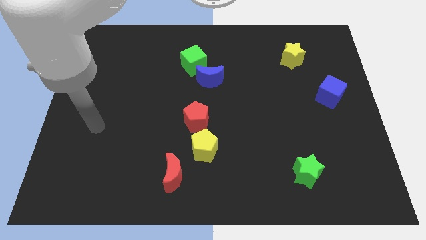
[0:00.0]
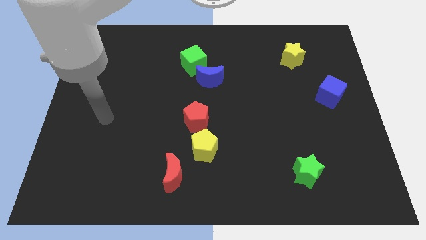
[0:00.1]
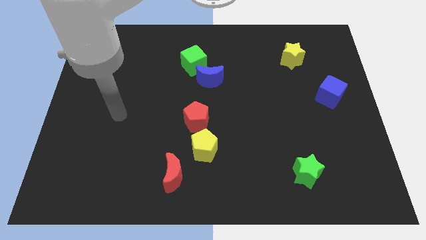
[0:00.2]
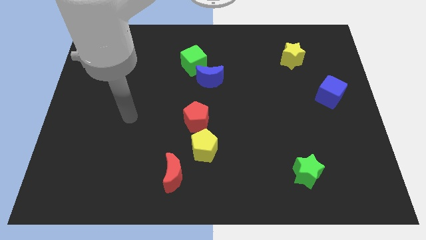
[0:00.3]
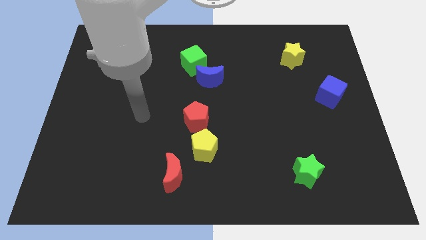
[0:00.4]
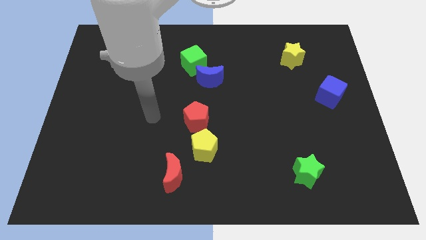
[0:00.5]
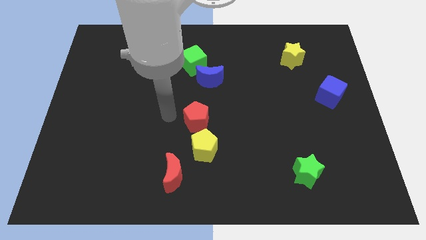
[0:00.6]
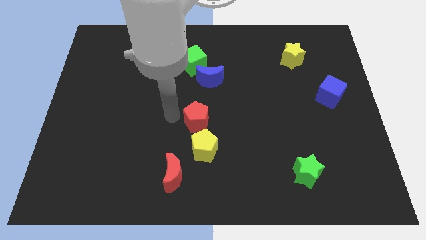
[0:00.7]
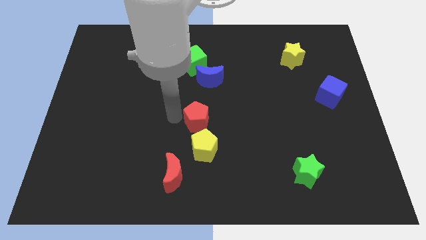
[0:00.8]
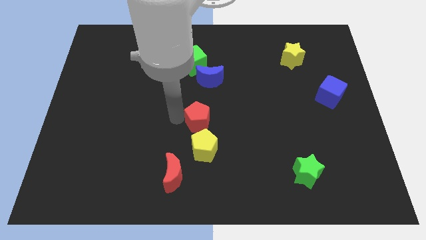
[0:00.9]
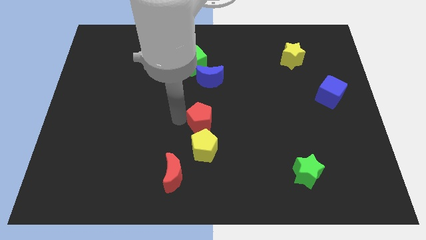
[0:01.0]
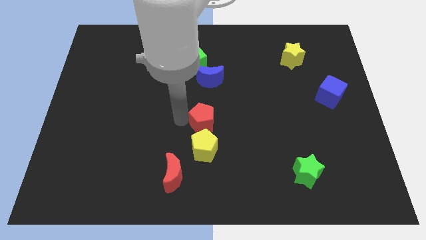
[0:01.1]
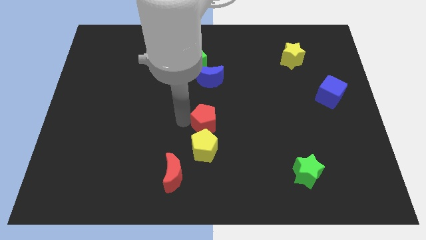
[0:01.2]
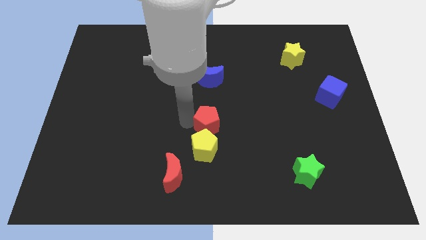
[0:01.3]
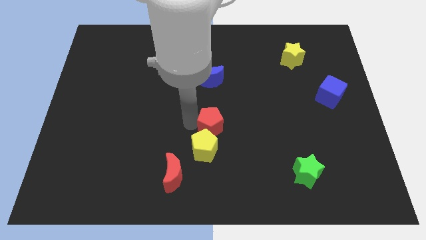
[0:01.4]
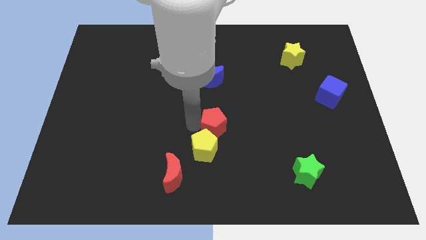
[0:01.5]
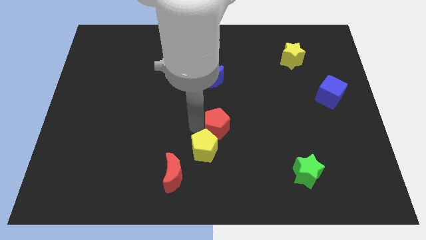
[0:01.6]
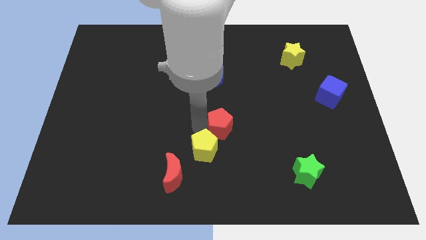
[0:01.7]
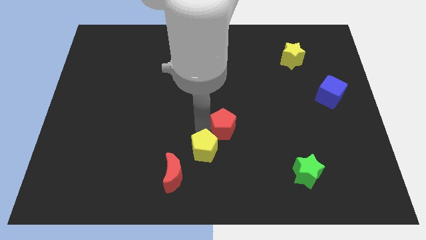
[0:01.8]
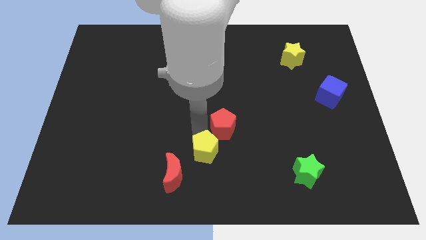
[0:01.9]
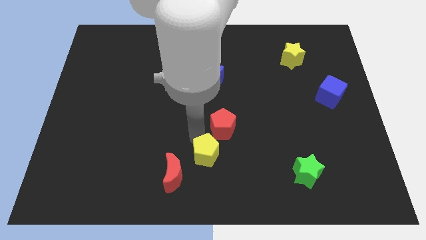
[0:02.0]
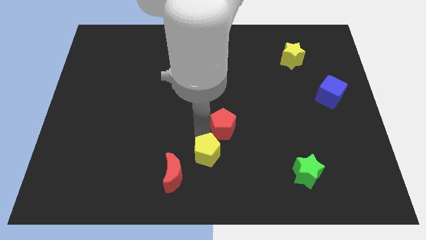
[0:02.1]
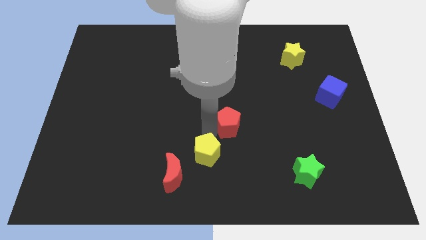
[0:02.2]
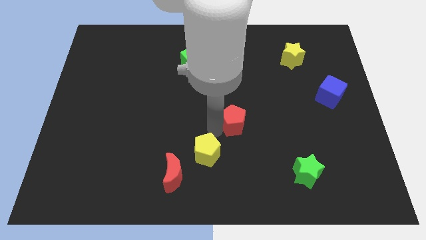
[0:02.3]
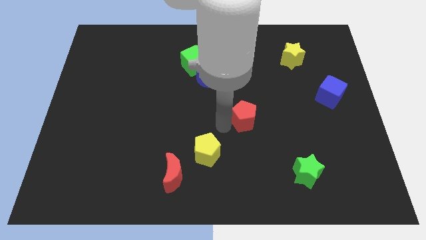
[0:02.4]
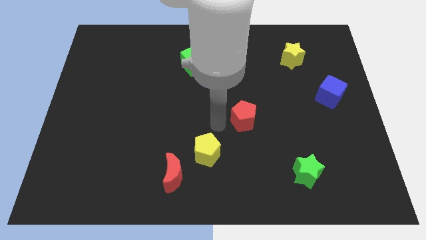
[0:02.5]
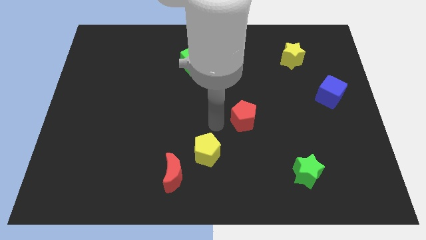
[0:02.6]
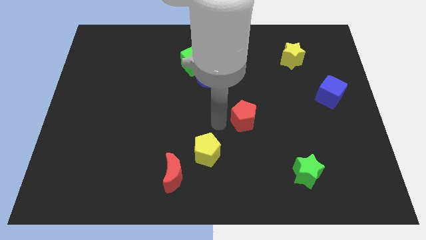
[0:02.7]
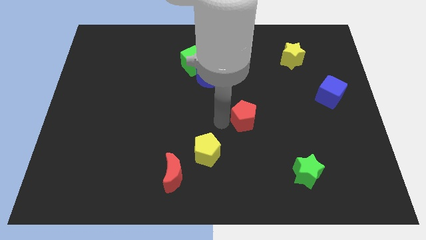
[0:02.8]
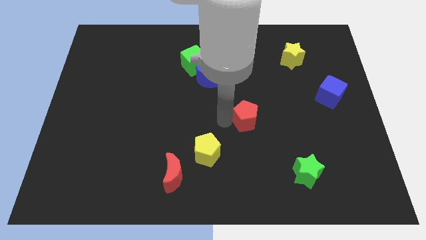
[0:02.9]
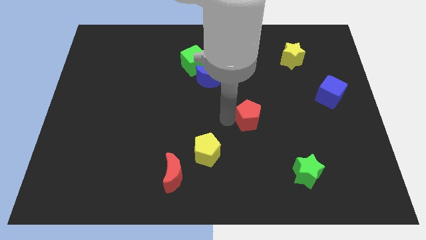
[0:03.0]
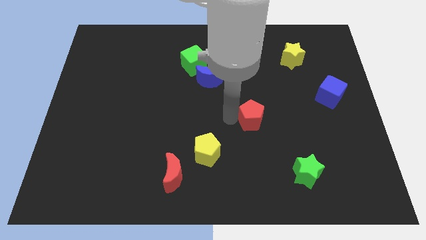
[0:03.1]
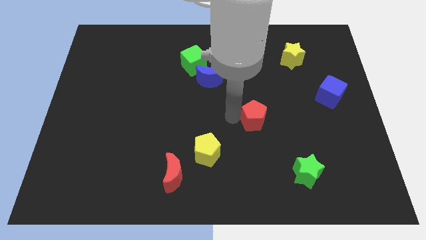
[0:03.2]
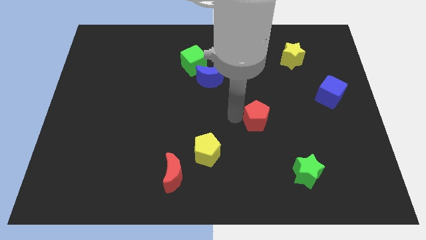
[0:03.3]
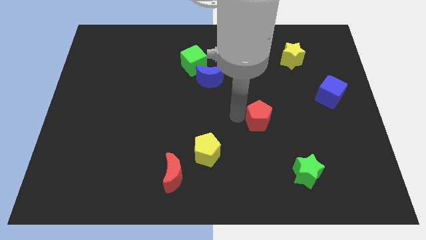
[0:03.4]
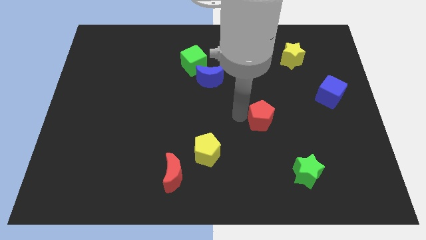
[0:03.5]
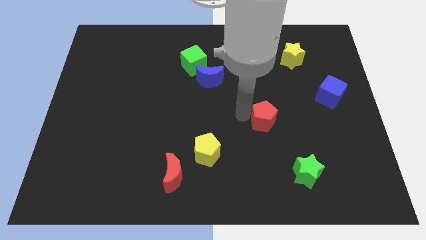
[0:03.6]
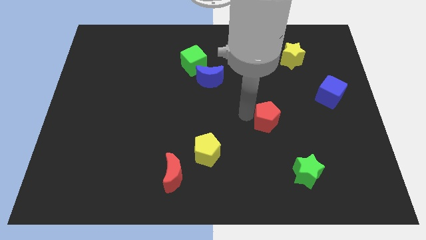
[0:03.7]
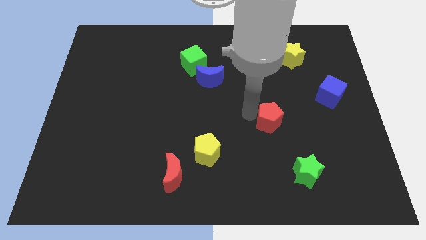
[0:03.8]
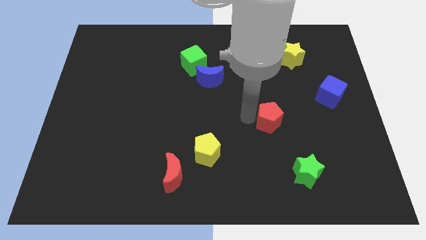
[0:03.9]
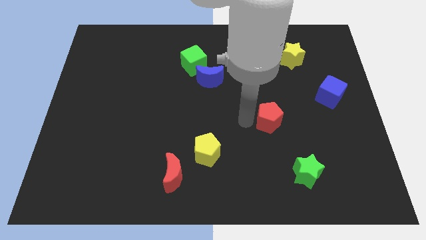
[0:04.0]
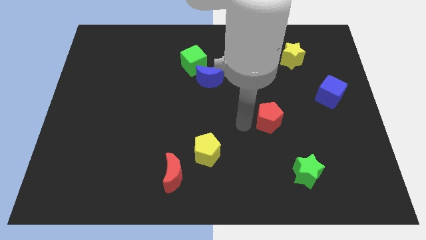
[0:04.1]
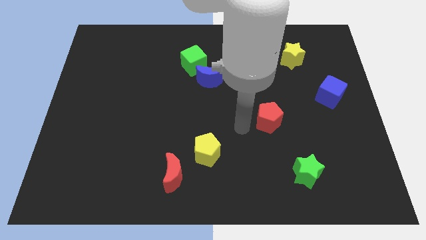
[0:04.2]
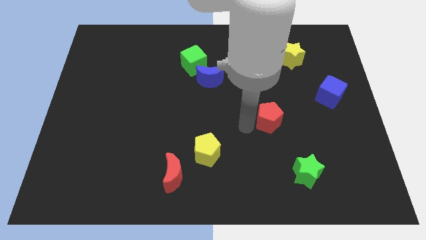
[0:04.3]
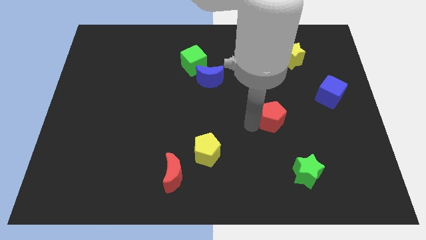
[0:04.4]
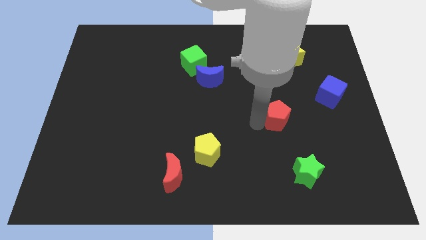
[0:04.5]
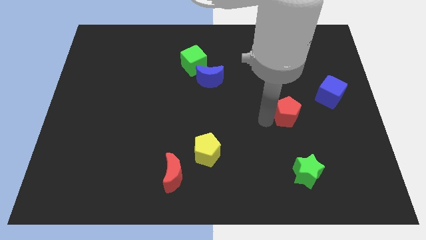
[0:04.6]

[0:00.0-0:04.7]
slide the red pentagon right

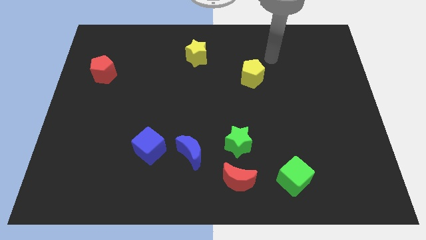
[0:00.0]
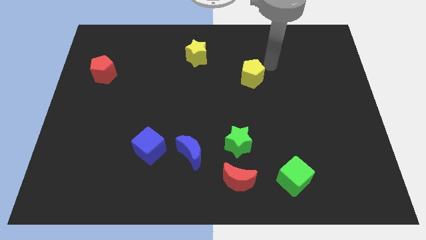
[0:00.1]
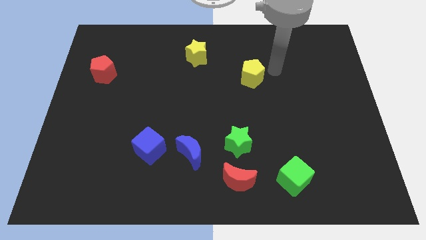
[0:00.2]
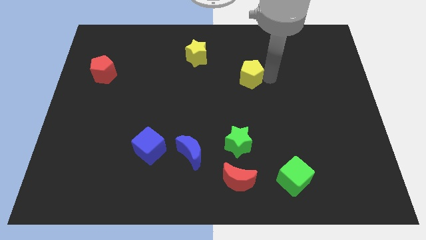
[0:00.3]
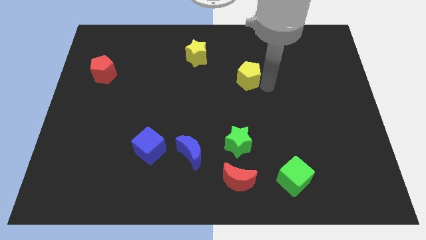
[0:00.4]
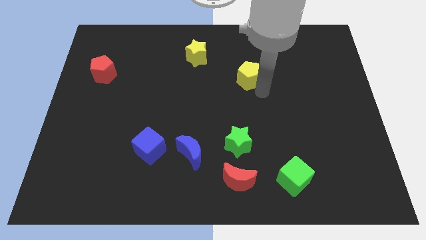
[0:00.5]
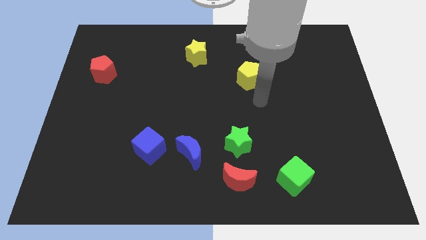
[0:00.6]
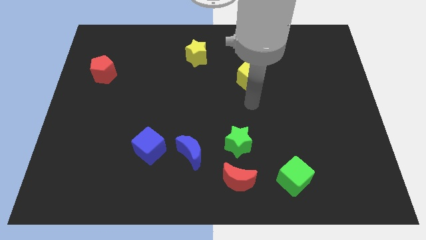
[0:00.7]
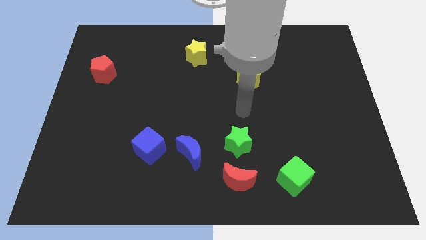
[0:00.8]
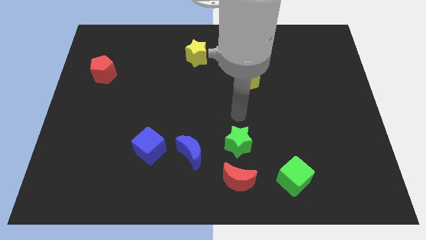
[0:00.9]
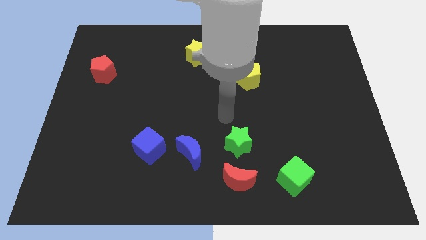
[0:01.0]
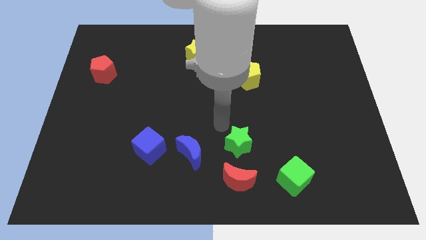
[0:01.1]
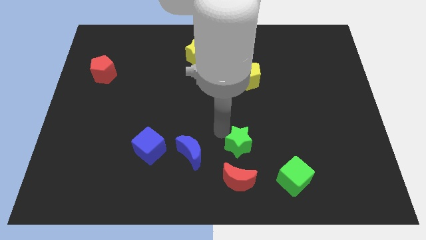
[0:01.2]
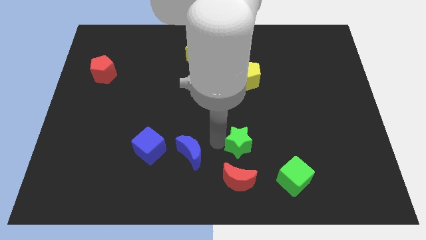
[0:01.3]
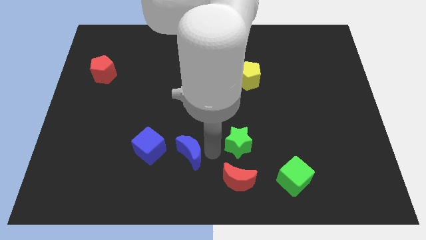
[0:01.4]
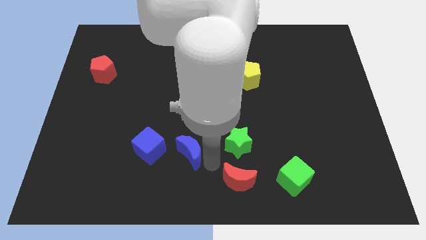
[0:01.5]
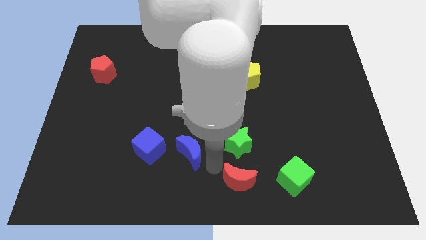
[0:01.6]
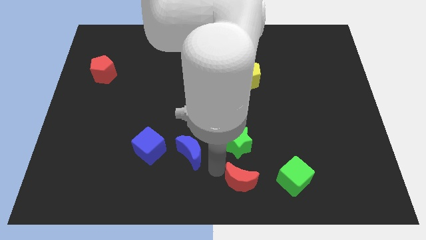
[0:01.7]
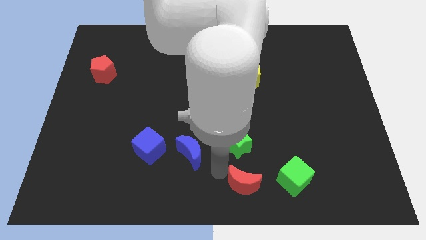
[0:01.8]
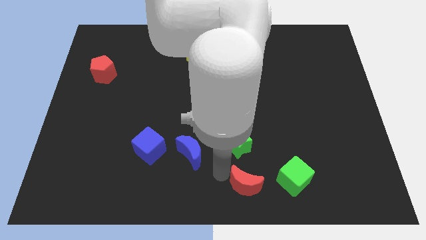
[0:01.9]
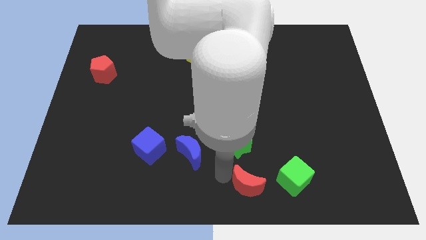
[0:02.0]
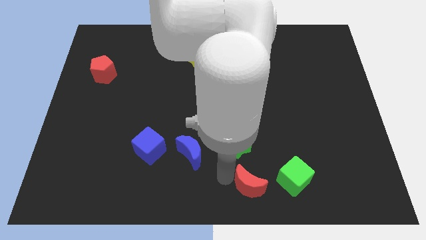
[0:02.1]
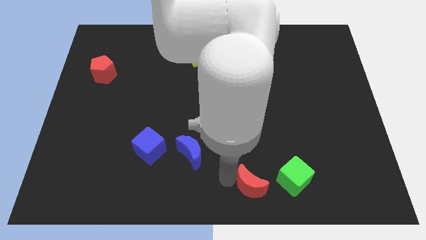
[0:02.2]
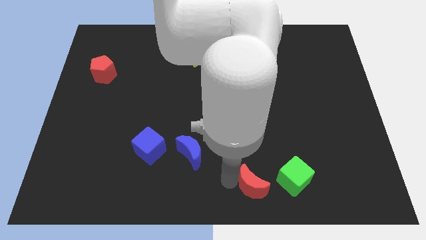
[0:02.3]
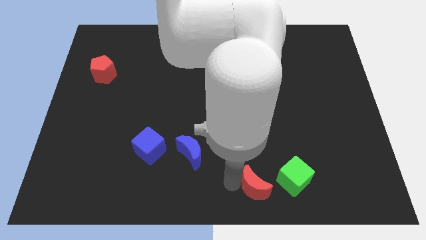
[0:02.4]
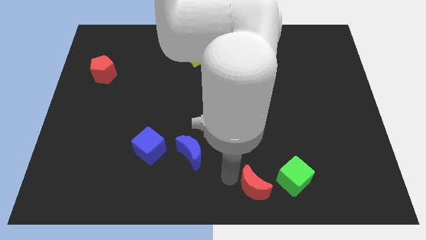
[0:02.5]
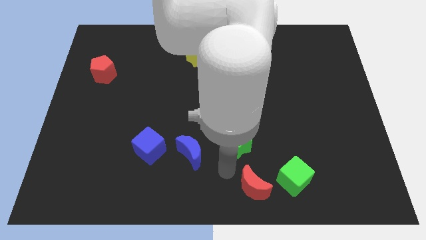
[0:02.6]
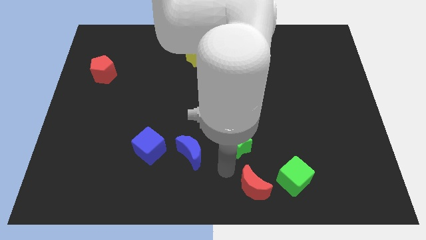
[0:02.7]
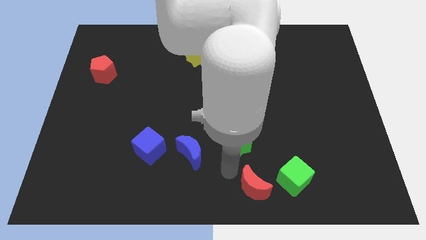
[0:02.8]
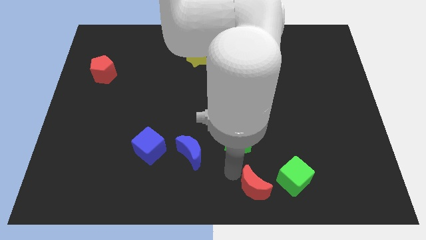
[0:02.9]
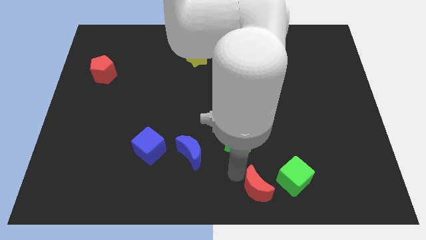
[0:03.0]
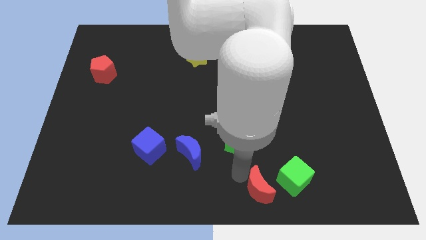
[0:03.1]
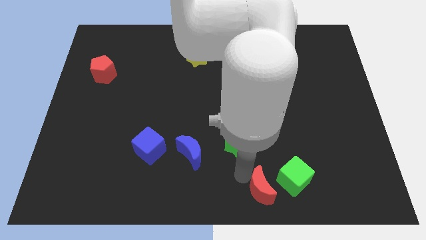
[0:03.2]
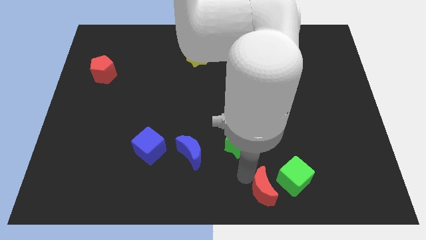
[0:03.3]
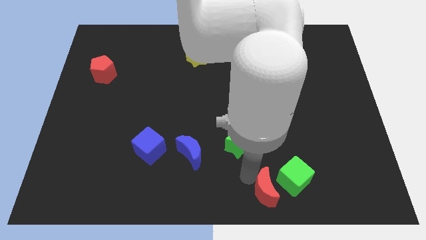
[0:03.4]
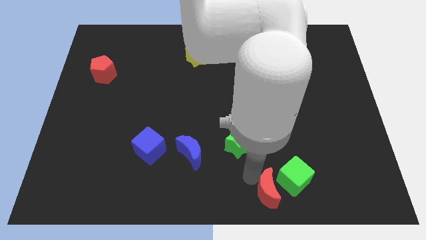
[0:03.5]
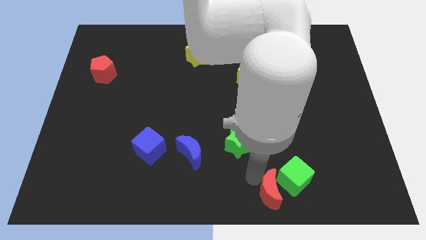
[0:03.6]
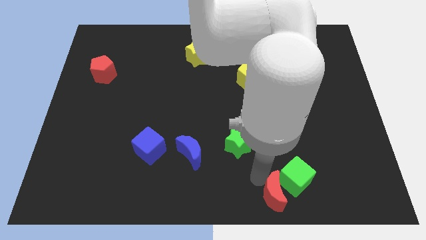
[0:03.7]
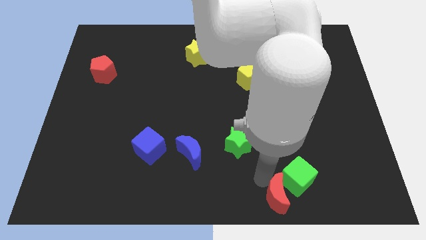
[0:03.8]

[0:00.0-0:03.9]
slide the red moon right somewhat
